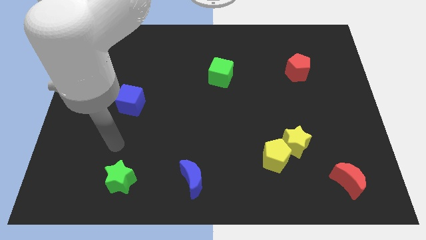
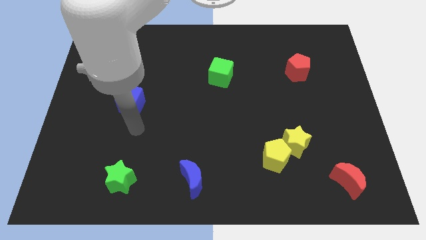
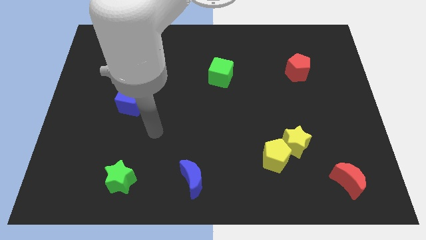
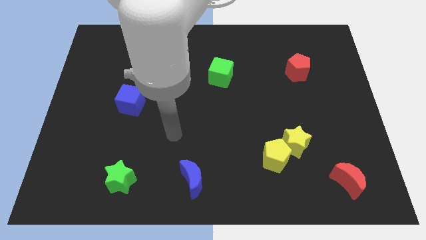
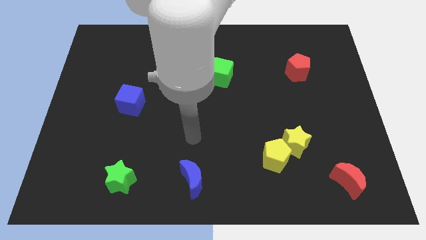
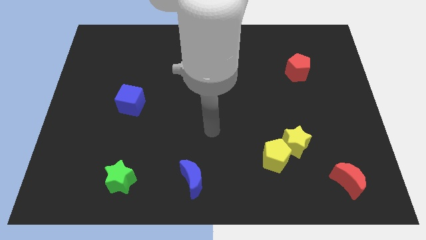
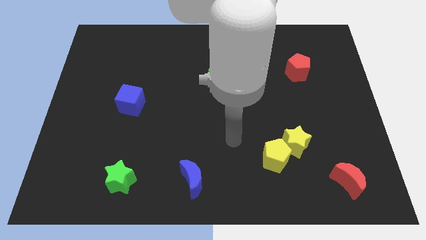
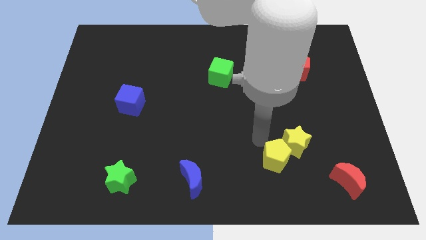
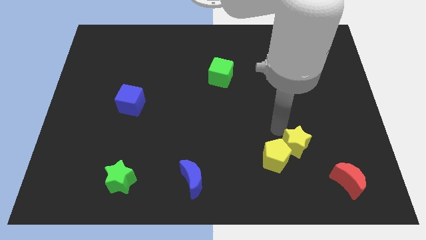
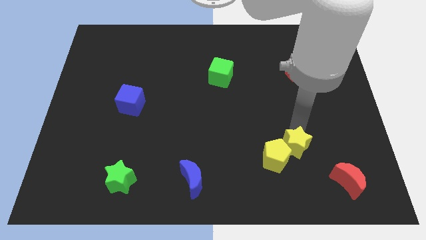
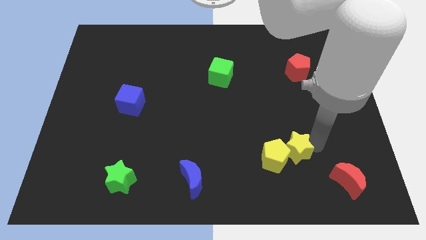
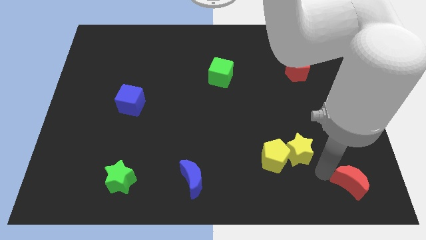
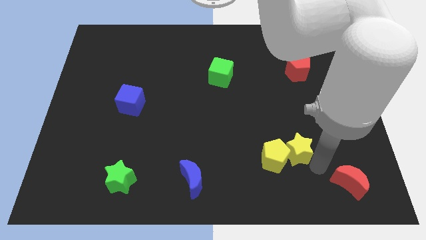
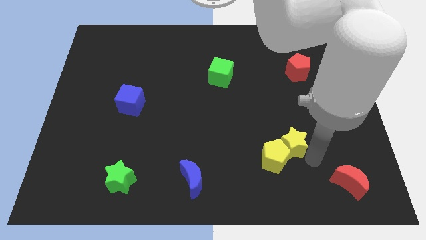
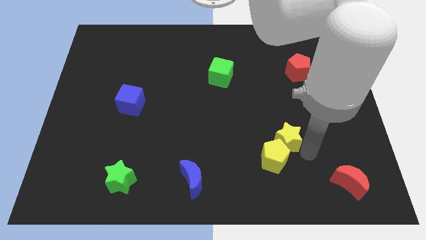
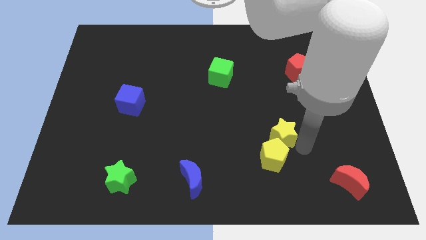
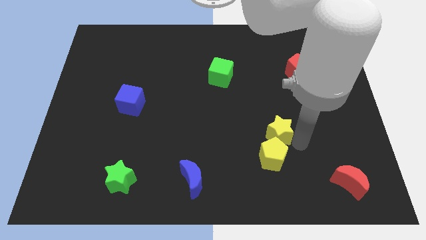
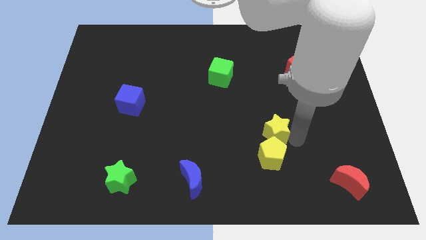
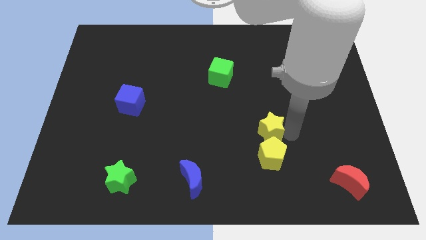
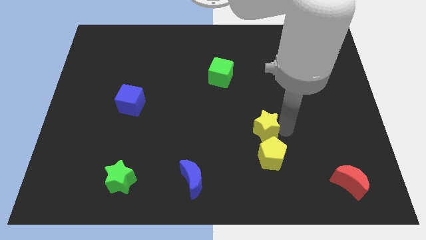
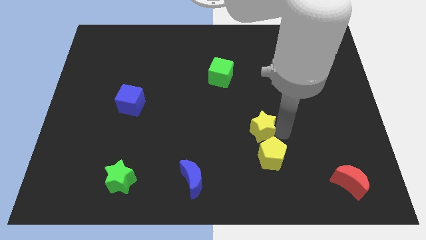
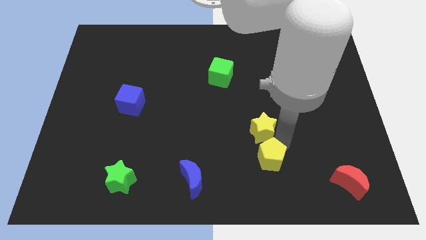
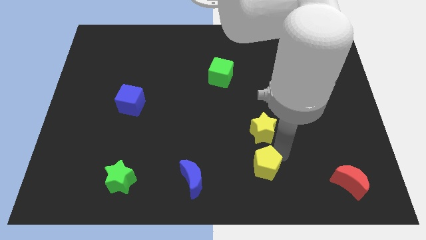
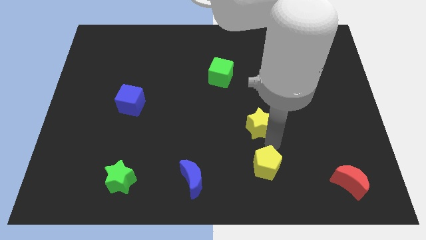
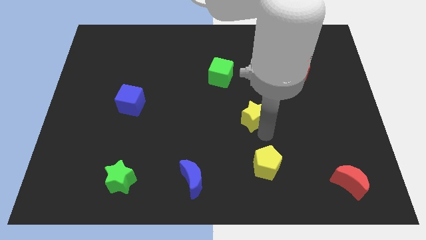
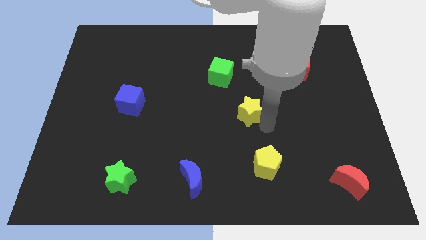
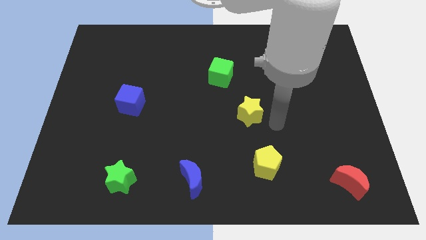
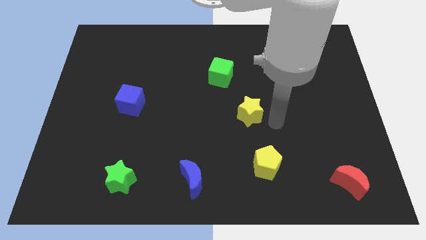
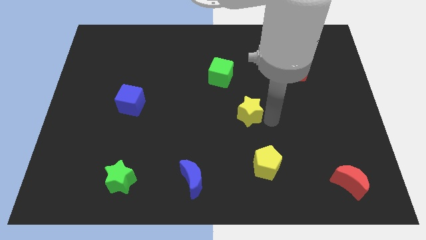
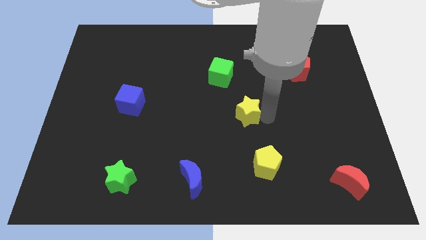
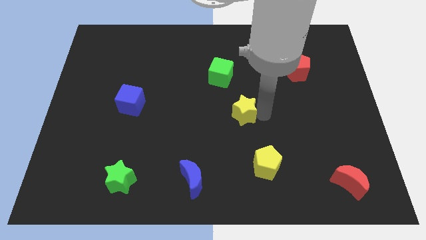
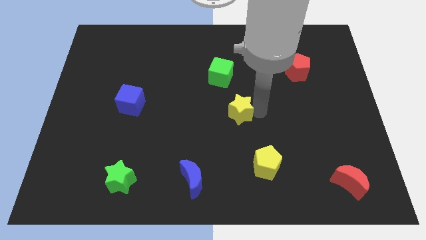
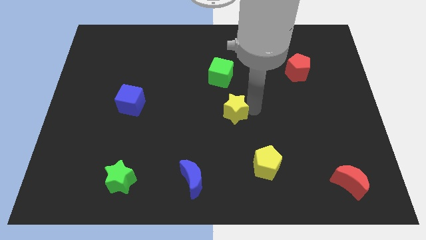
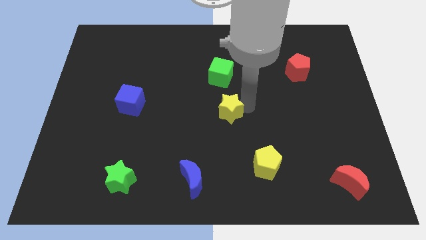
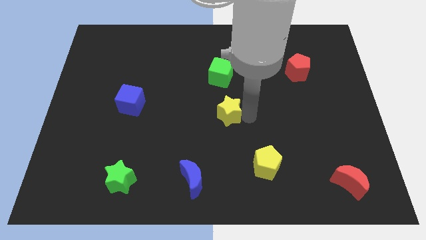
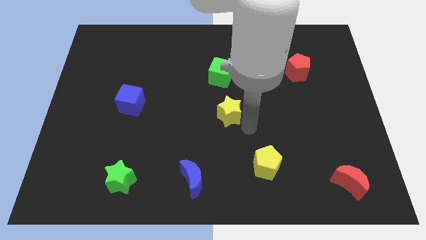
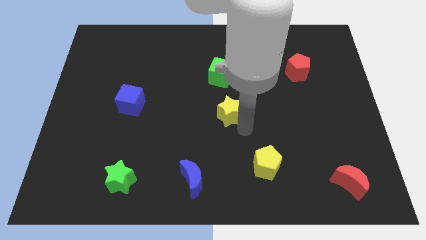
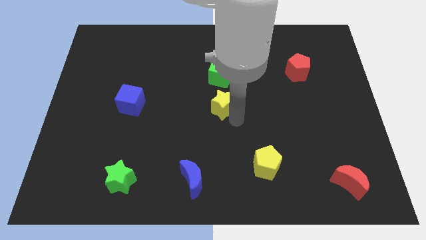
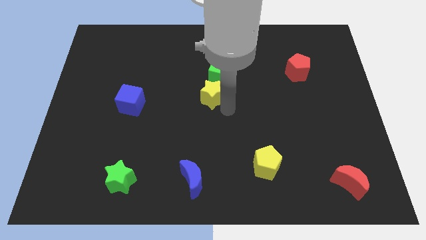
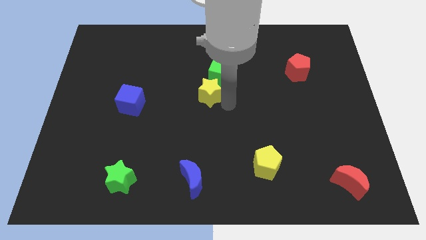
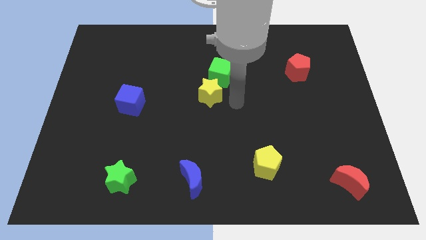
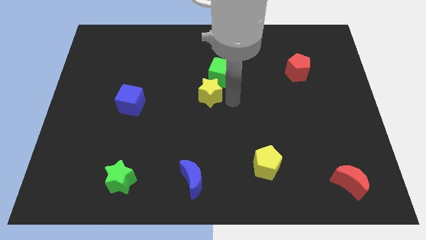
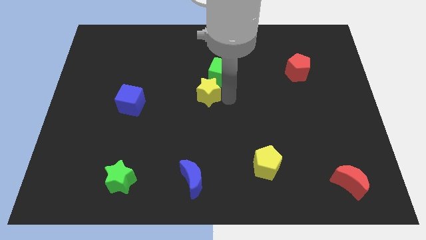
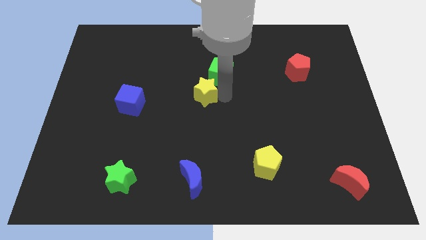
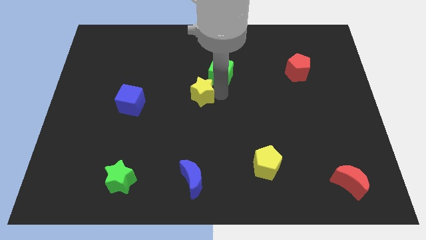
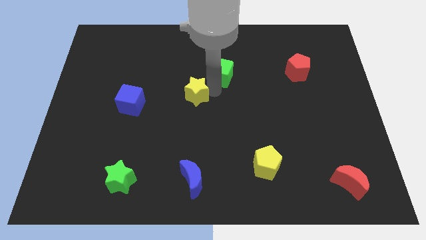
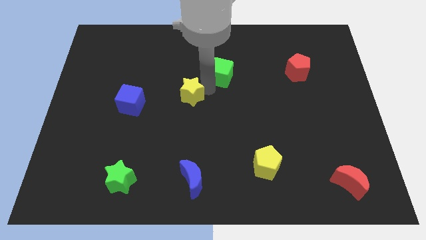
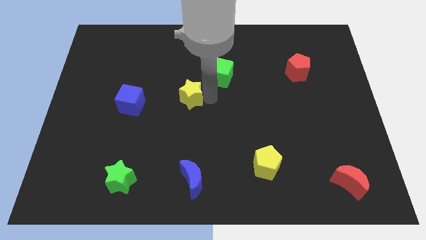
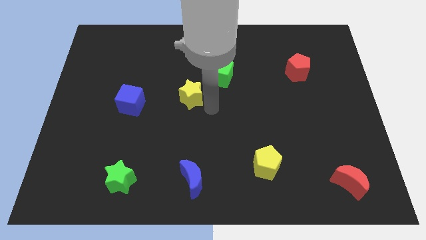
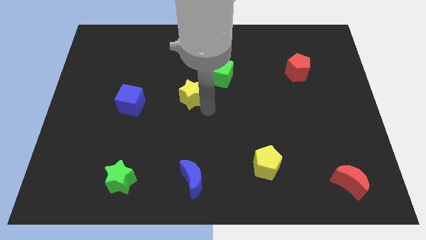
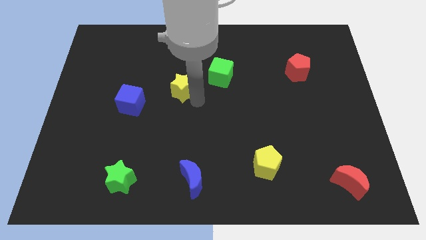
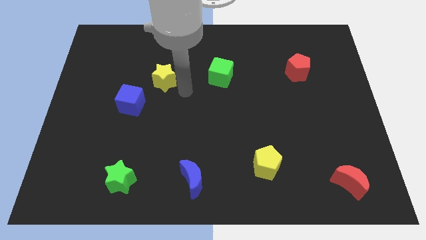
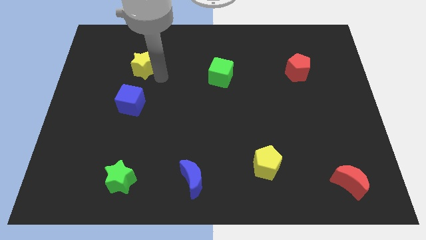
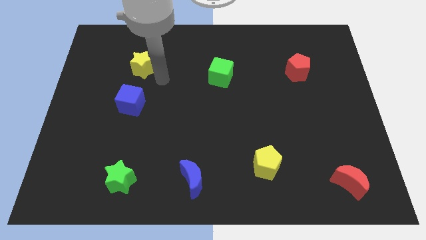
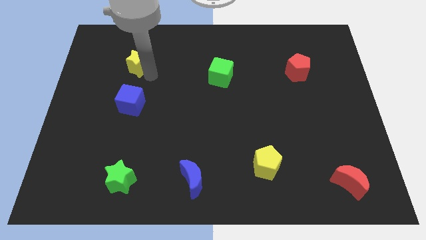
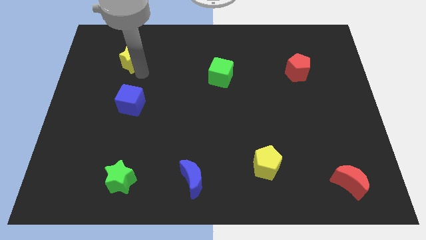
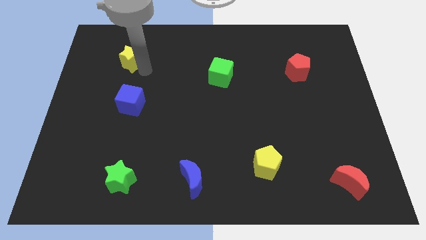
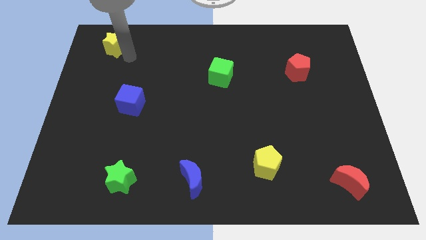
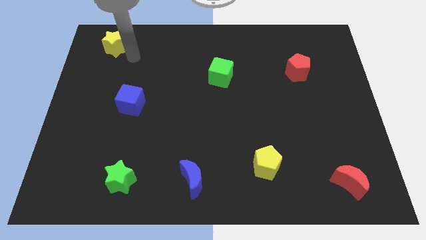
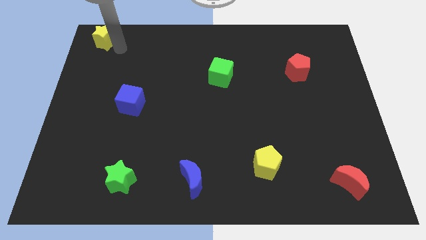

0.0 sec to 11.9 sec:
push the yellow star to the top left corner
